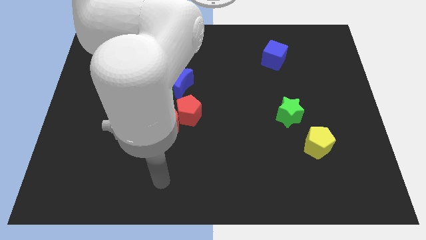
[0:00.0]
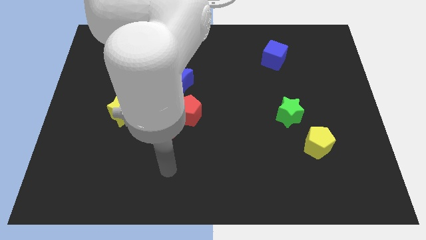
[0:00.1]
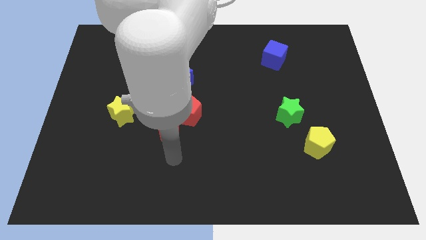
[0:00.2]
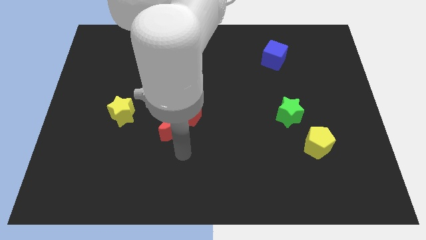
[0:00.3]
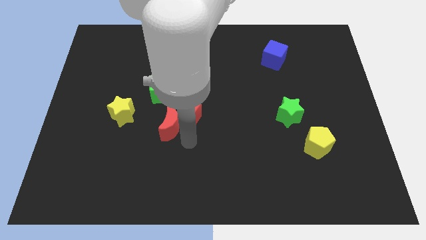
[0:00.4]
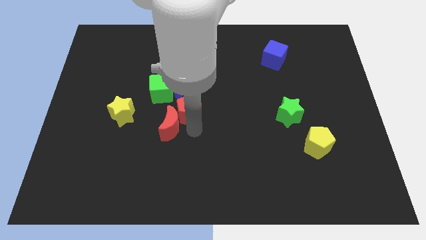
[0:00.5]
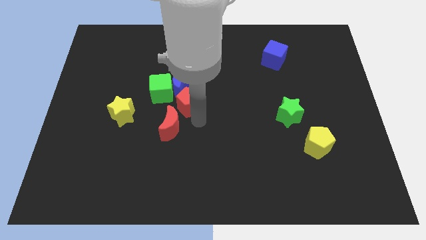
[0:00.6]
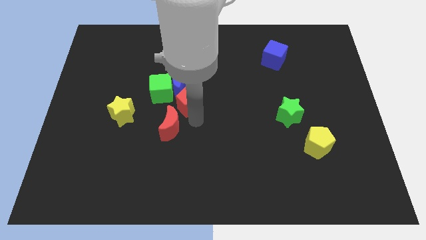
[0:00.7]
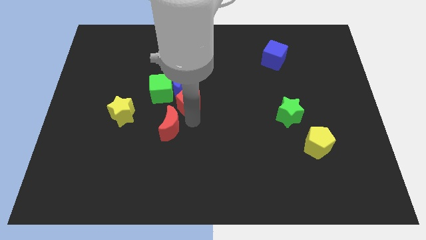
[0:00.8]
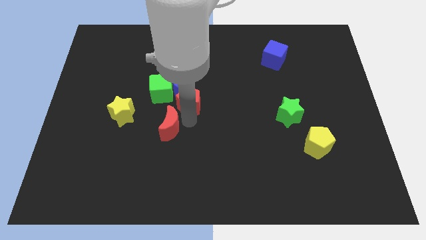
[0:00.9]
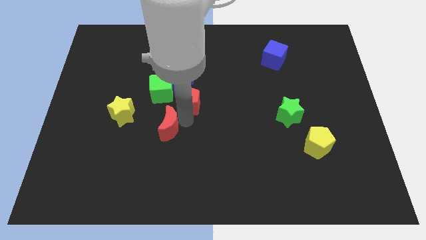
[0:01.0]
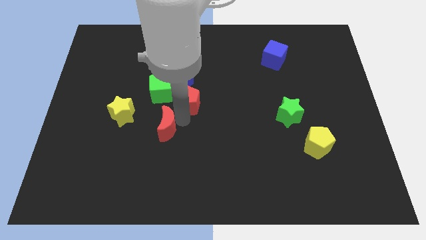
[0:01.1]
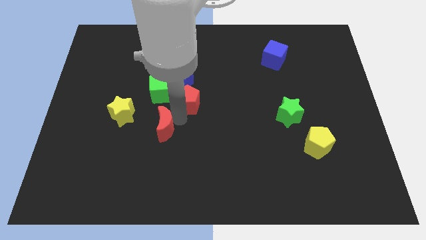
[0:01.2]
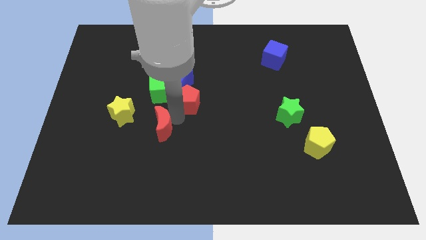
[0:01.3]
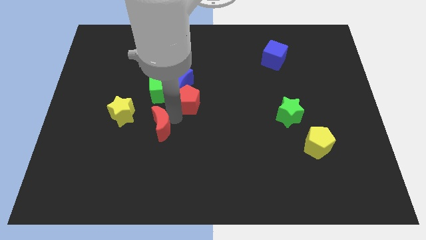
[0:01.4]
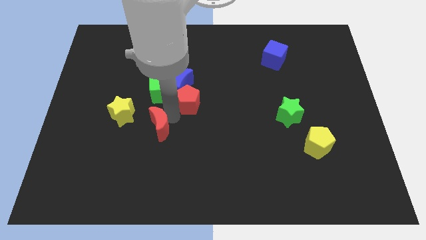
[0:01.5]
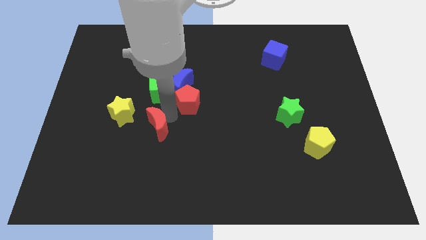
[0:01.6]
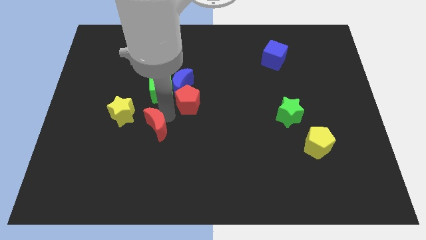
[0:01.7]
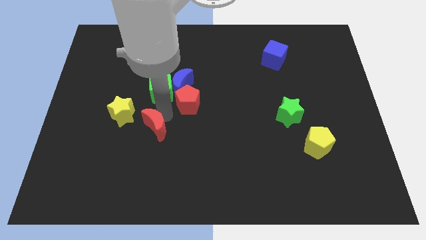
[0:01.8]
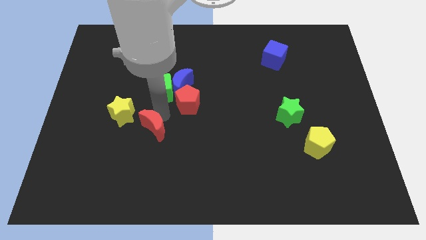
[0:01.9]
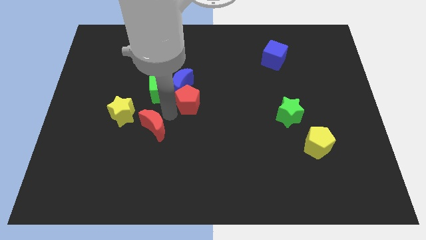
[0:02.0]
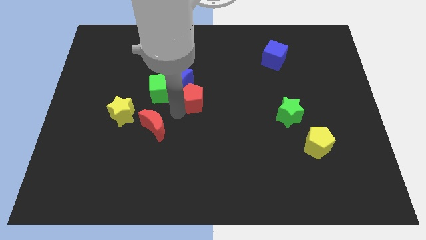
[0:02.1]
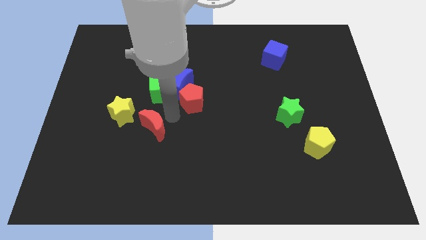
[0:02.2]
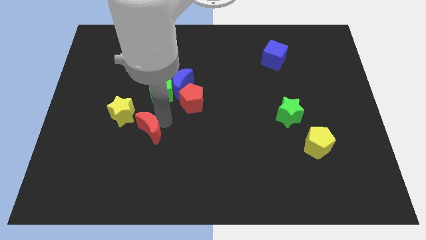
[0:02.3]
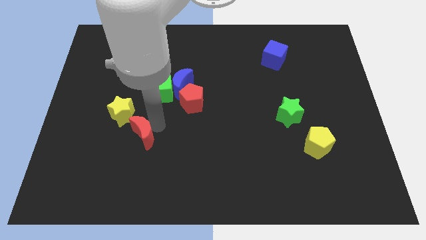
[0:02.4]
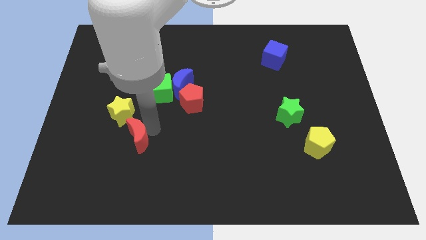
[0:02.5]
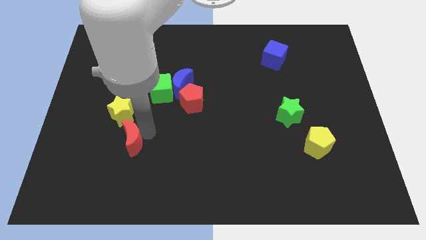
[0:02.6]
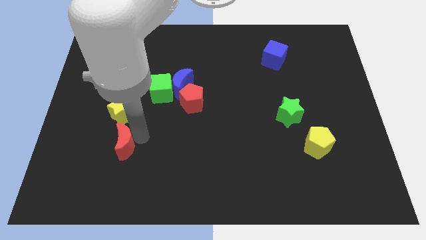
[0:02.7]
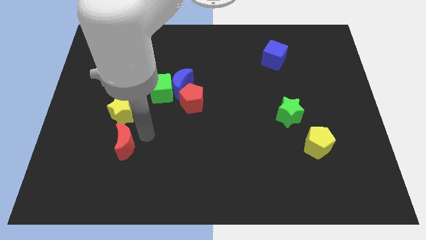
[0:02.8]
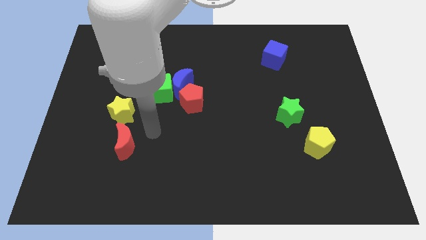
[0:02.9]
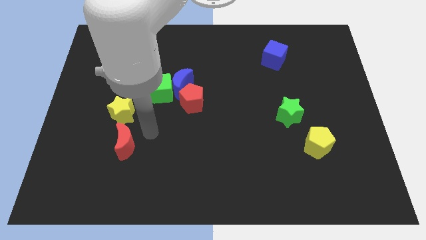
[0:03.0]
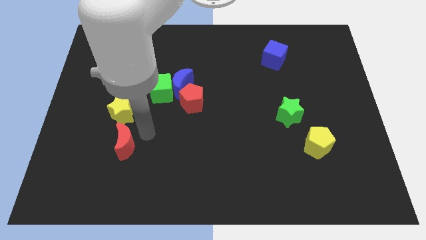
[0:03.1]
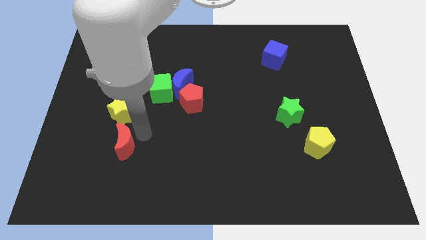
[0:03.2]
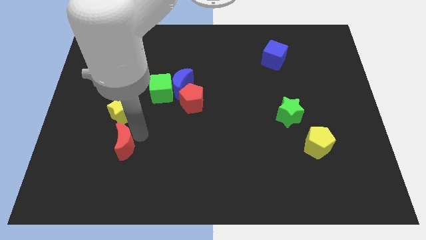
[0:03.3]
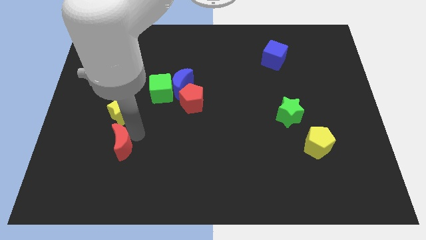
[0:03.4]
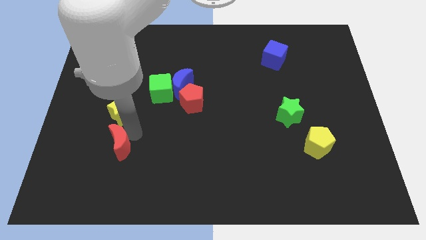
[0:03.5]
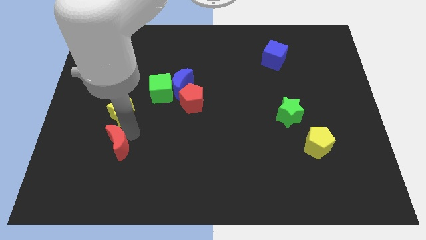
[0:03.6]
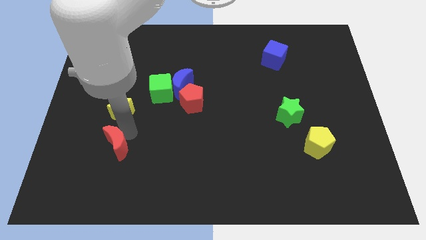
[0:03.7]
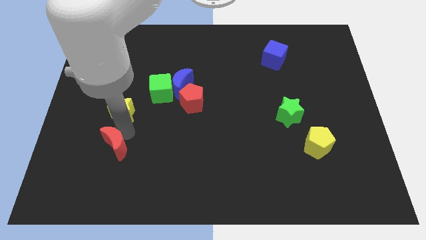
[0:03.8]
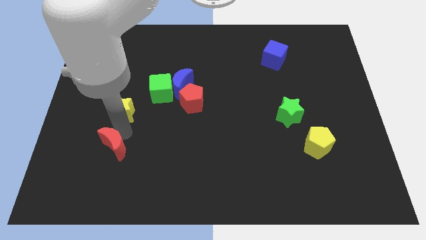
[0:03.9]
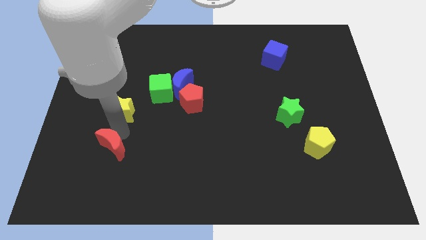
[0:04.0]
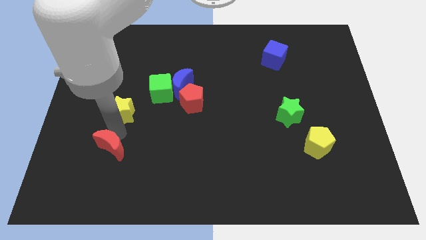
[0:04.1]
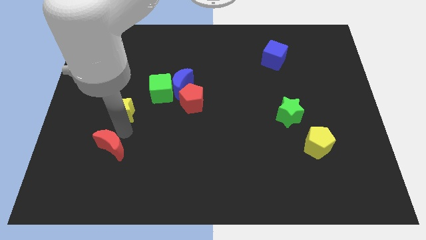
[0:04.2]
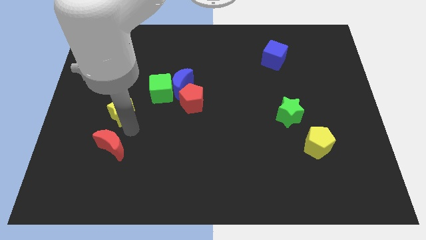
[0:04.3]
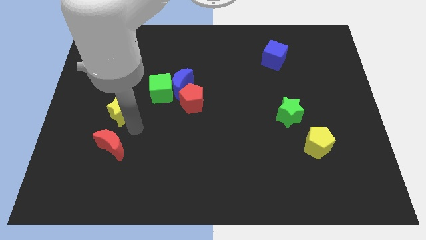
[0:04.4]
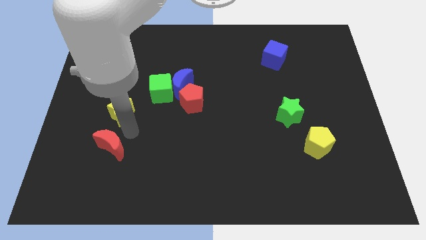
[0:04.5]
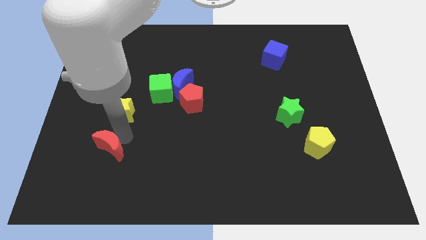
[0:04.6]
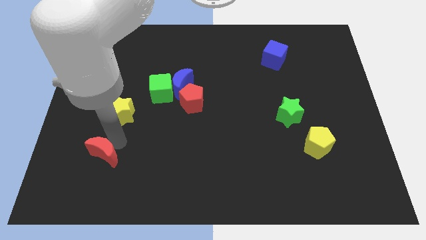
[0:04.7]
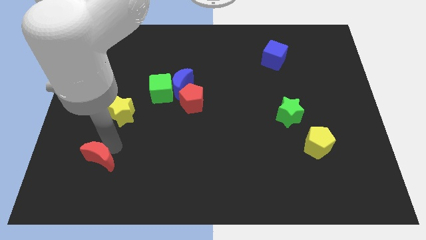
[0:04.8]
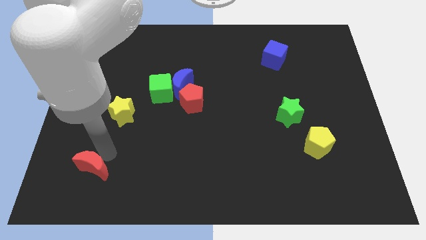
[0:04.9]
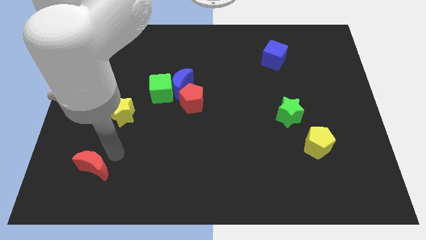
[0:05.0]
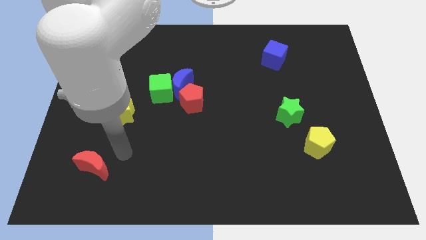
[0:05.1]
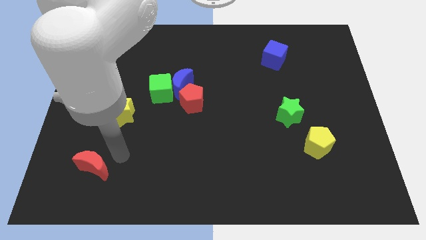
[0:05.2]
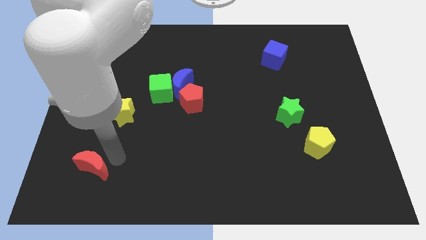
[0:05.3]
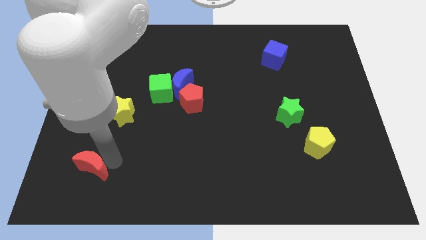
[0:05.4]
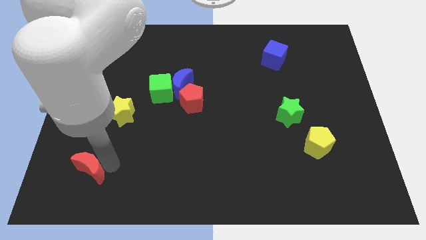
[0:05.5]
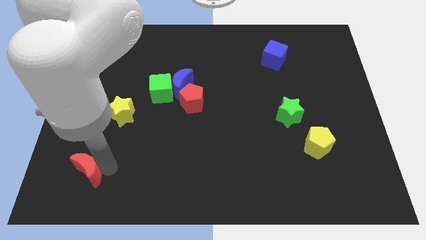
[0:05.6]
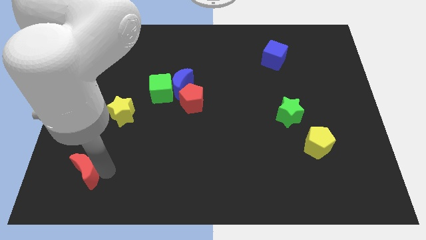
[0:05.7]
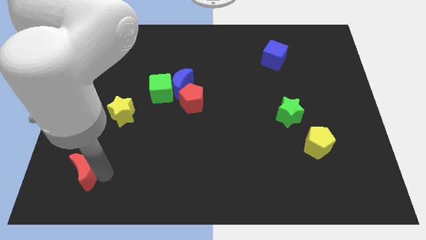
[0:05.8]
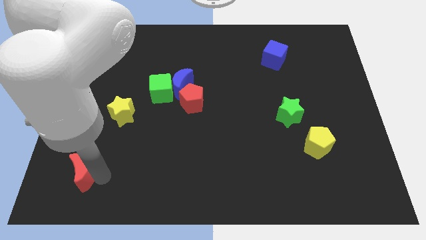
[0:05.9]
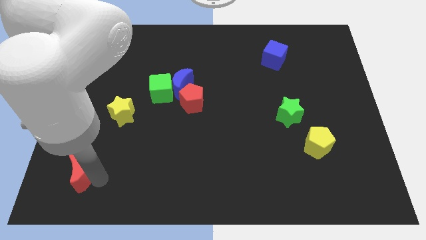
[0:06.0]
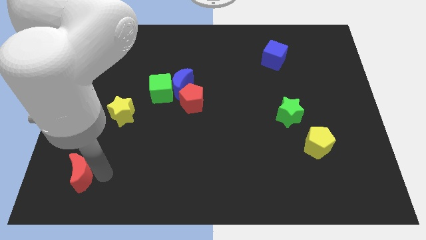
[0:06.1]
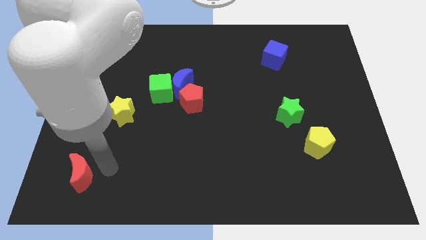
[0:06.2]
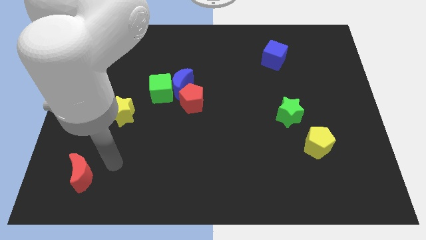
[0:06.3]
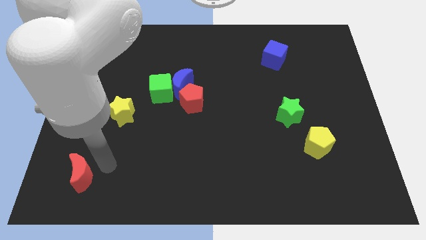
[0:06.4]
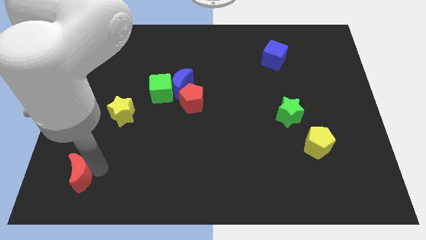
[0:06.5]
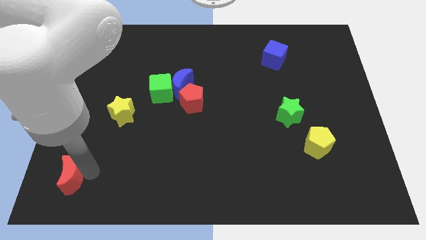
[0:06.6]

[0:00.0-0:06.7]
push the red moon to the bottom left

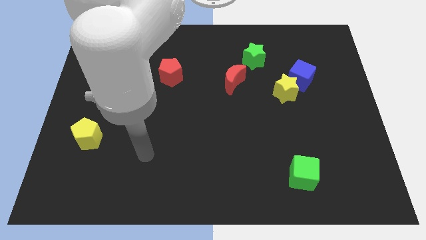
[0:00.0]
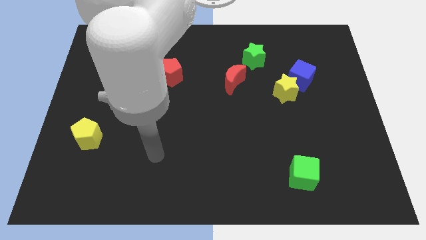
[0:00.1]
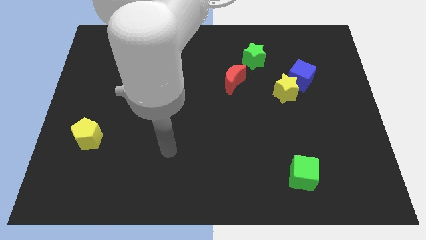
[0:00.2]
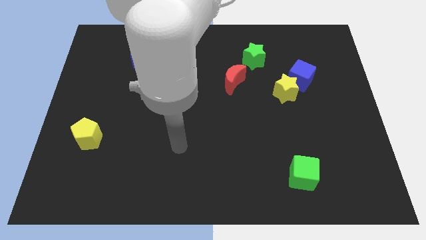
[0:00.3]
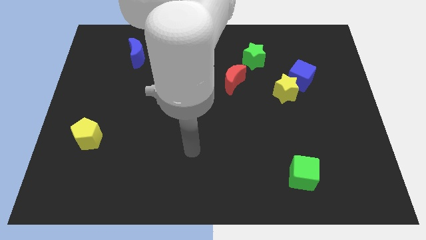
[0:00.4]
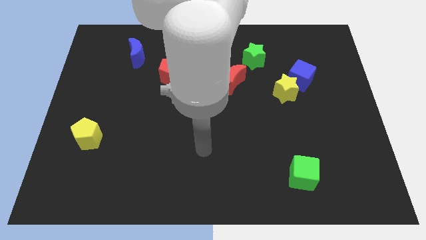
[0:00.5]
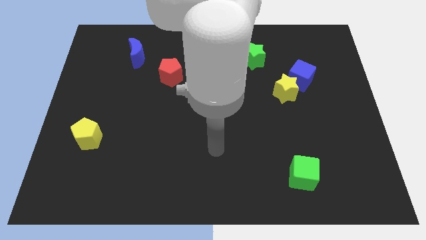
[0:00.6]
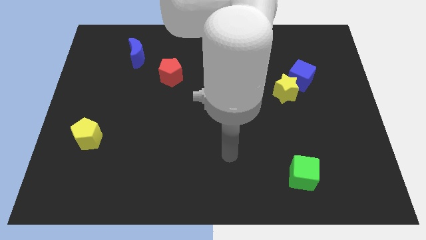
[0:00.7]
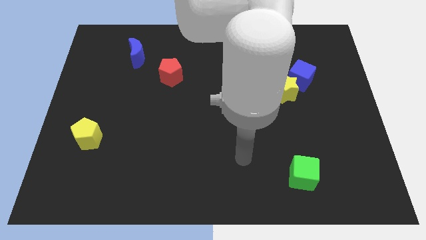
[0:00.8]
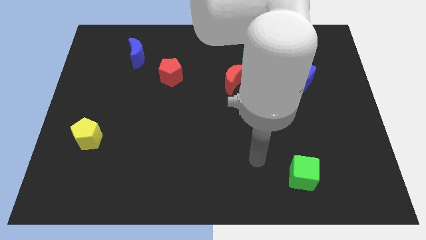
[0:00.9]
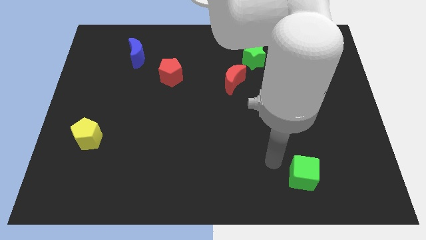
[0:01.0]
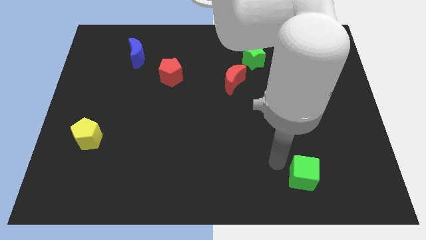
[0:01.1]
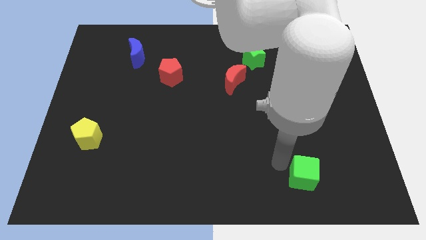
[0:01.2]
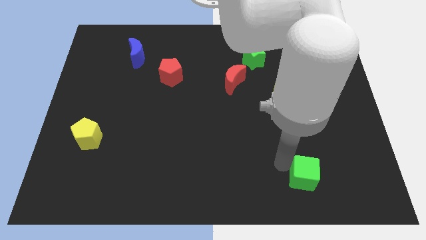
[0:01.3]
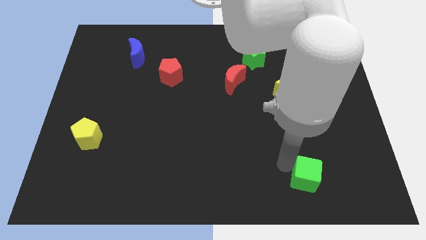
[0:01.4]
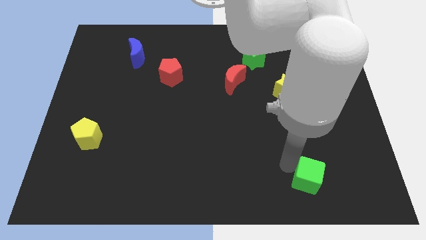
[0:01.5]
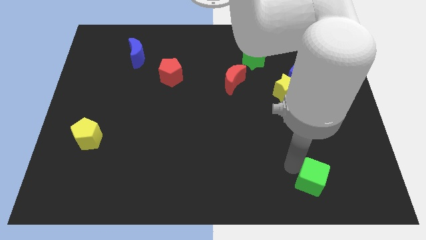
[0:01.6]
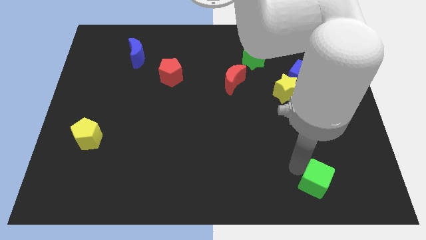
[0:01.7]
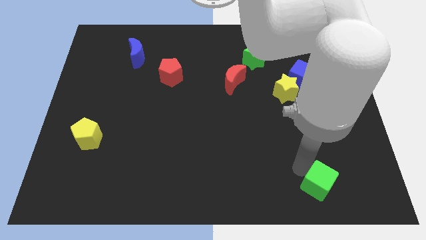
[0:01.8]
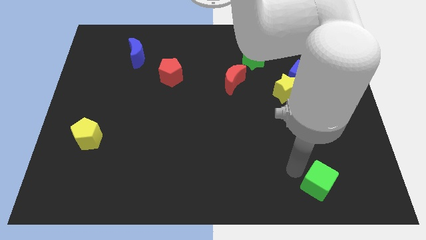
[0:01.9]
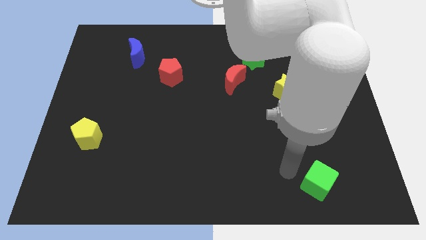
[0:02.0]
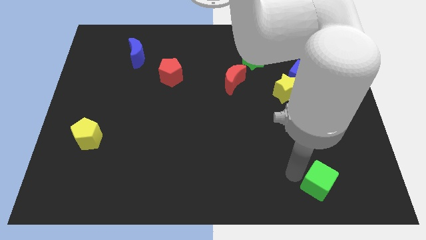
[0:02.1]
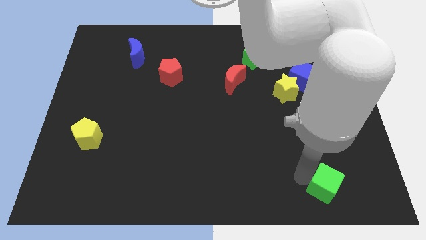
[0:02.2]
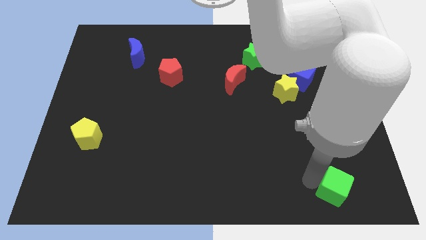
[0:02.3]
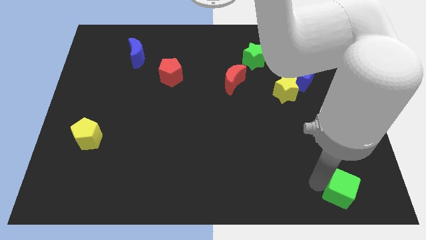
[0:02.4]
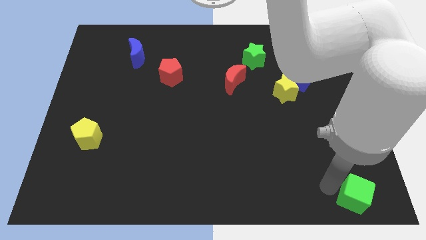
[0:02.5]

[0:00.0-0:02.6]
move the green cube to the bottom right corner
